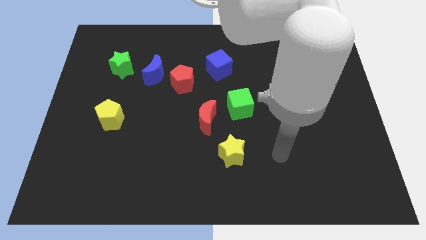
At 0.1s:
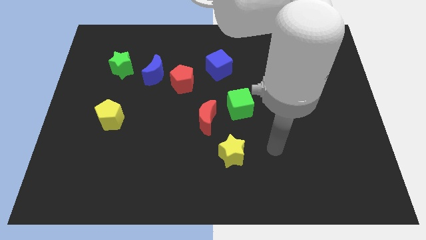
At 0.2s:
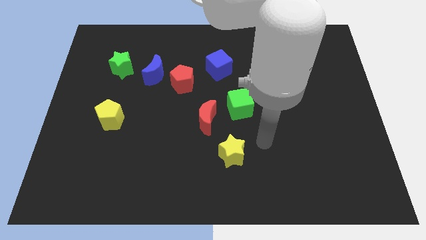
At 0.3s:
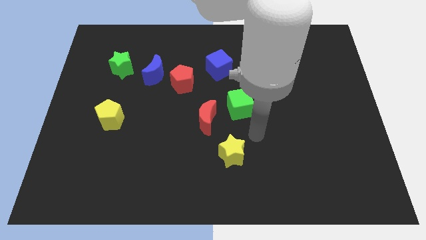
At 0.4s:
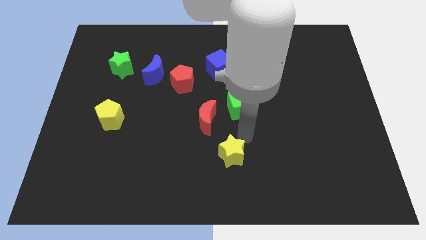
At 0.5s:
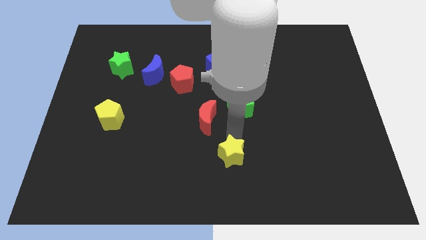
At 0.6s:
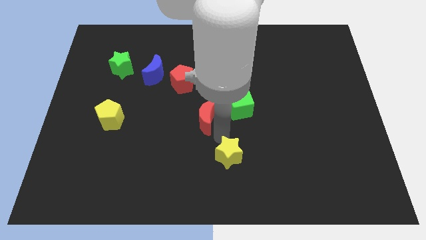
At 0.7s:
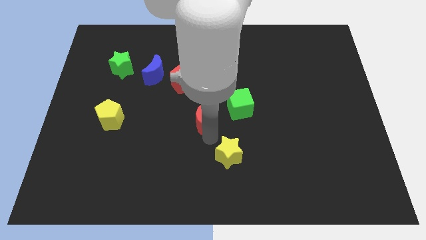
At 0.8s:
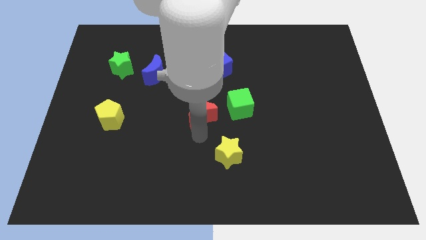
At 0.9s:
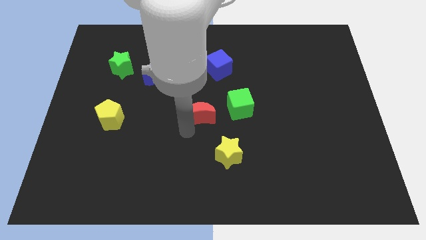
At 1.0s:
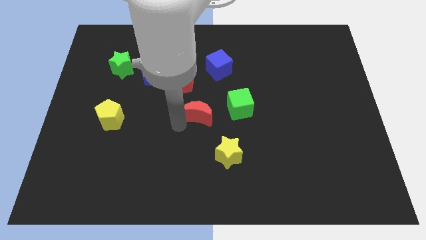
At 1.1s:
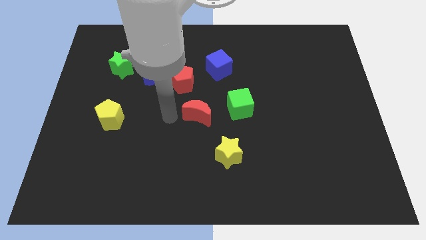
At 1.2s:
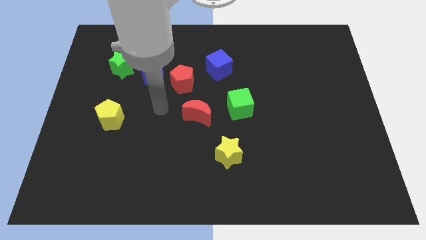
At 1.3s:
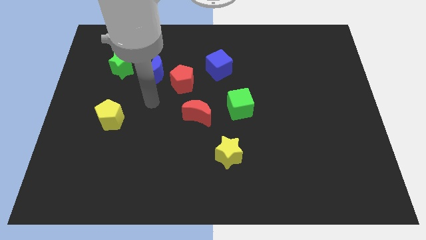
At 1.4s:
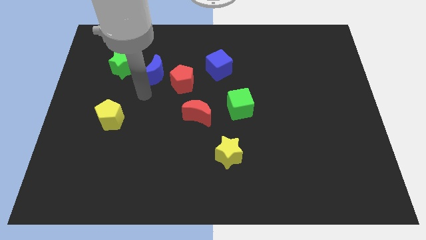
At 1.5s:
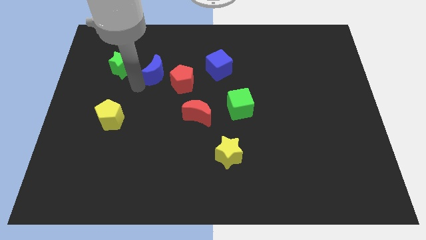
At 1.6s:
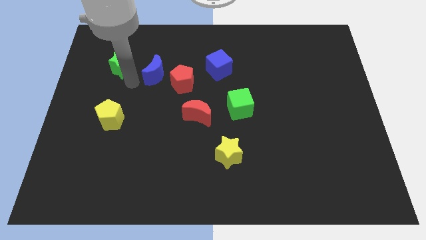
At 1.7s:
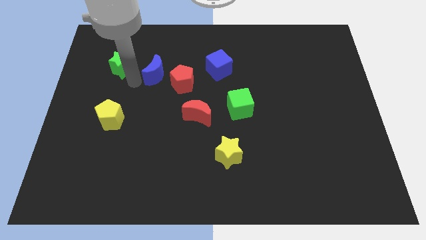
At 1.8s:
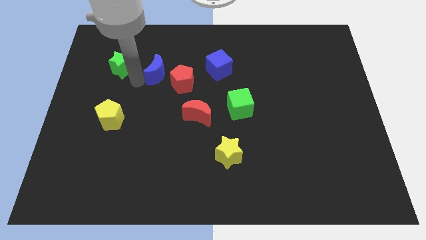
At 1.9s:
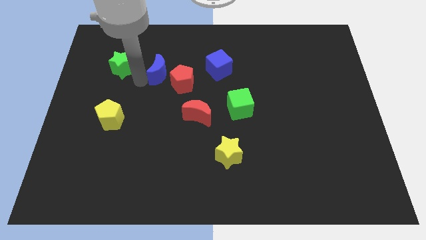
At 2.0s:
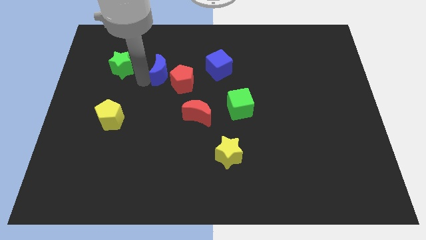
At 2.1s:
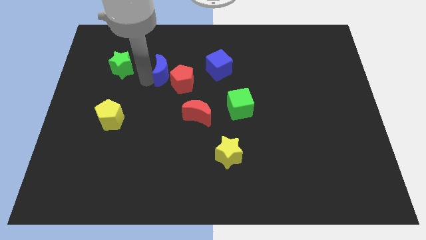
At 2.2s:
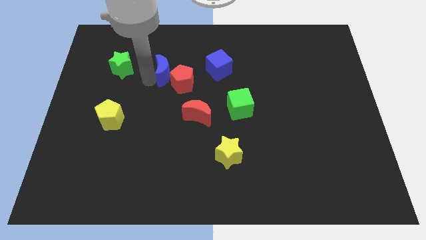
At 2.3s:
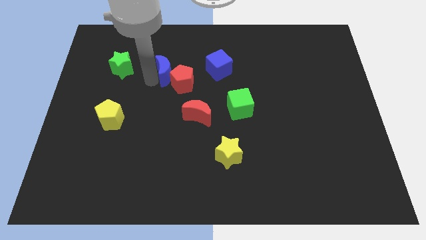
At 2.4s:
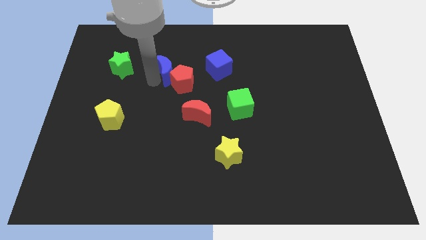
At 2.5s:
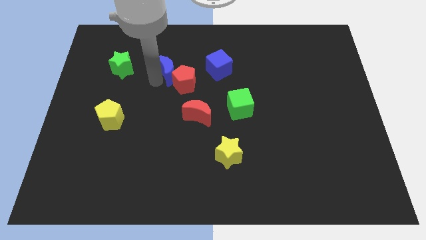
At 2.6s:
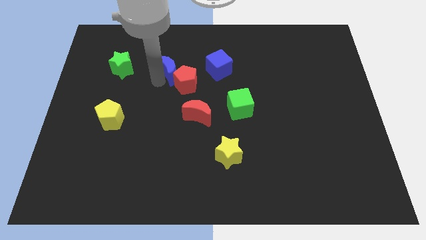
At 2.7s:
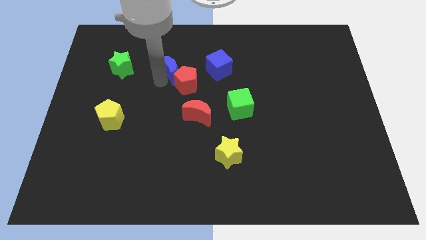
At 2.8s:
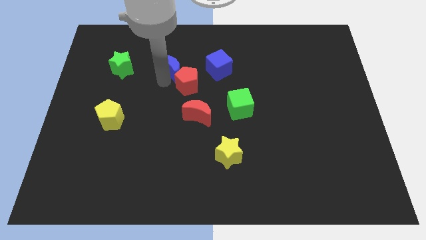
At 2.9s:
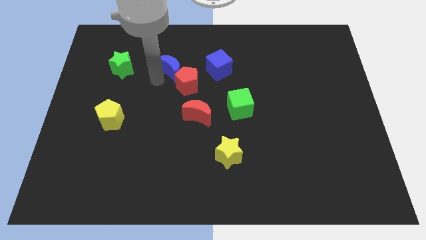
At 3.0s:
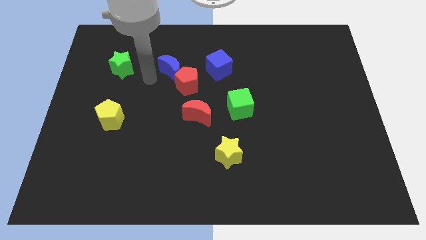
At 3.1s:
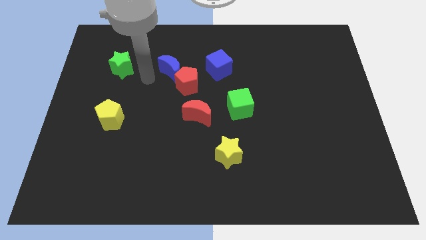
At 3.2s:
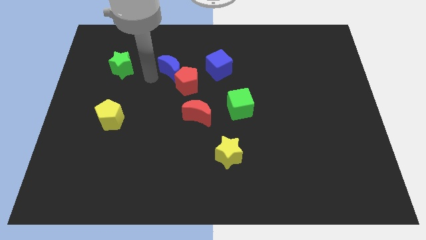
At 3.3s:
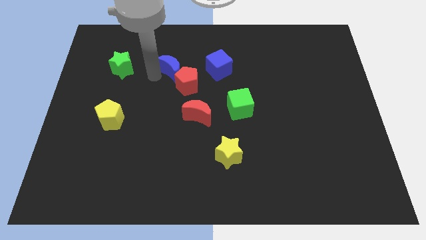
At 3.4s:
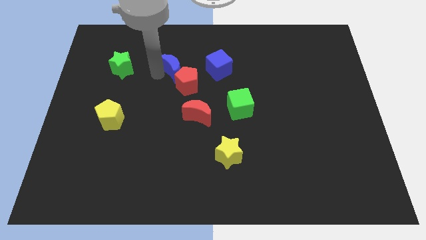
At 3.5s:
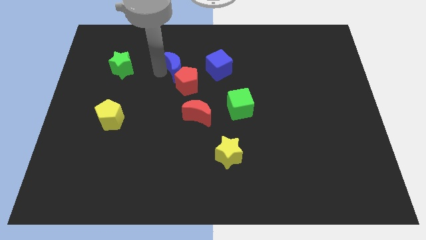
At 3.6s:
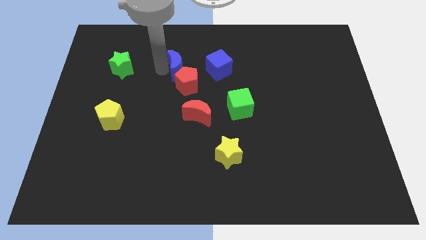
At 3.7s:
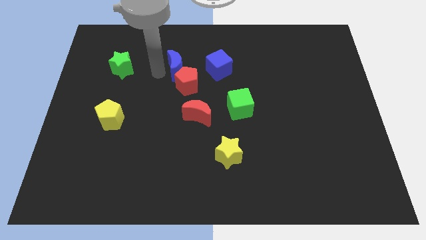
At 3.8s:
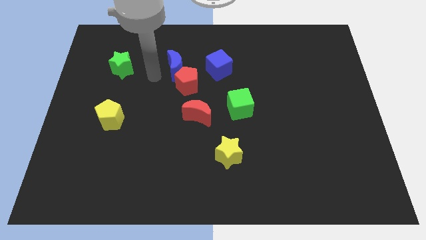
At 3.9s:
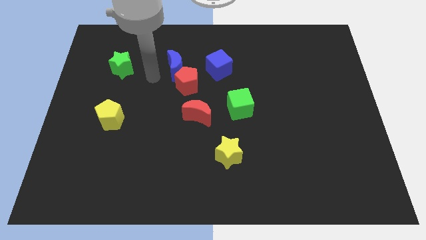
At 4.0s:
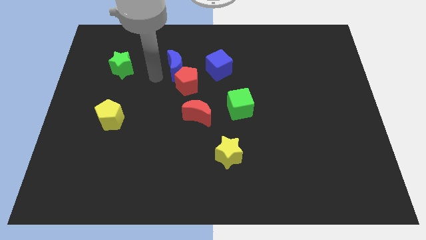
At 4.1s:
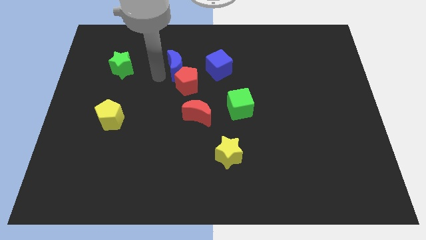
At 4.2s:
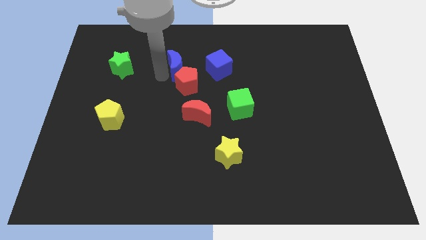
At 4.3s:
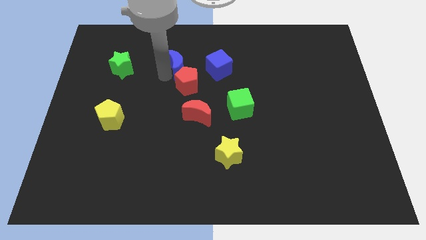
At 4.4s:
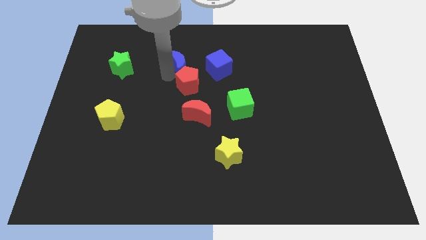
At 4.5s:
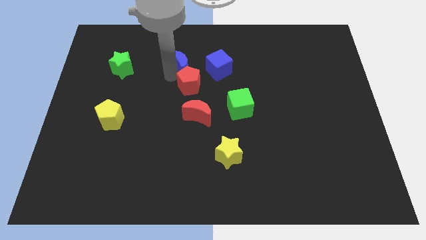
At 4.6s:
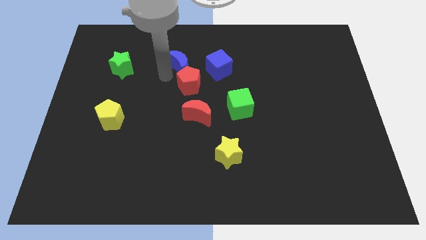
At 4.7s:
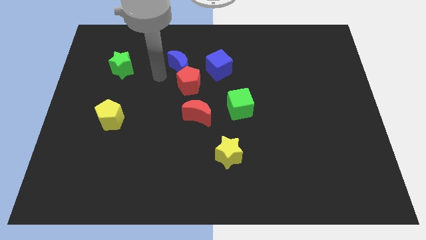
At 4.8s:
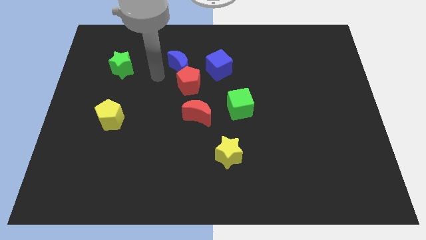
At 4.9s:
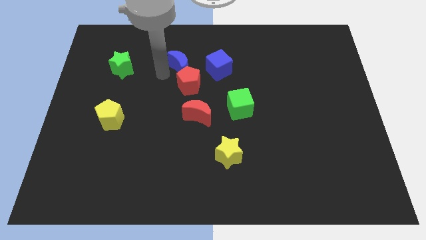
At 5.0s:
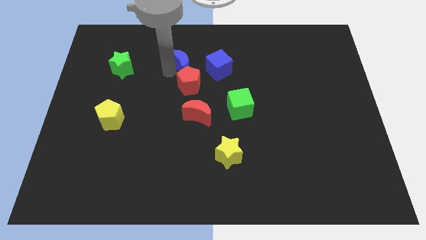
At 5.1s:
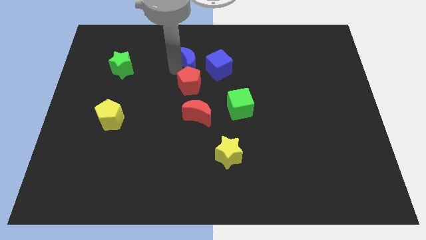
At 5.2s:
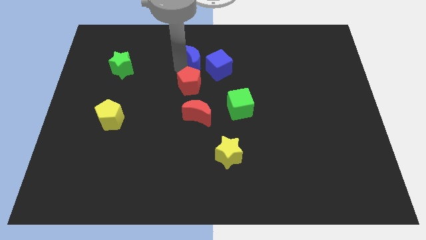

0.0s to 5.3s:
separate the blue moon from the red pentagon and green star

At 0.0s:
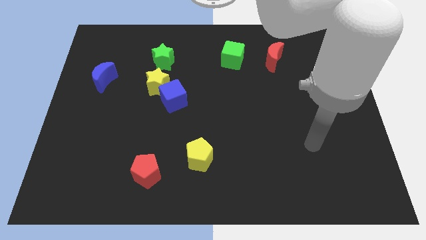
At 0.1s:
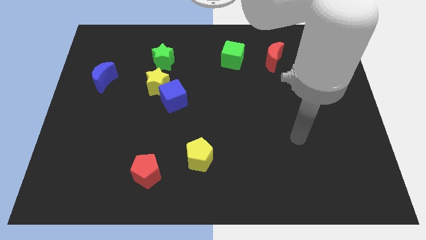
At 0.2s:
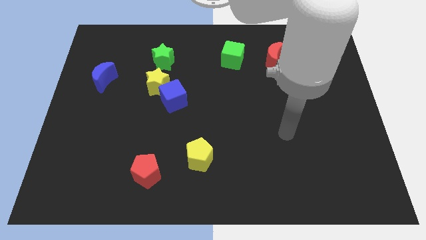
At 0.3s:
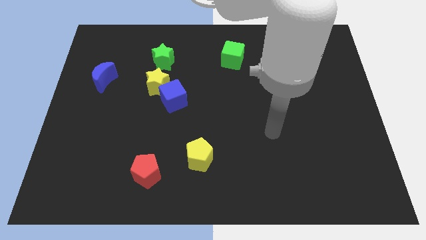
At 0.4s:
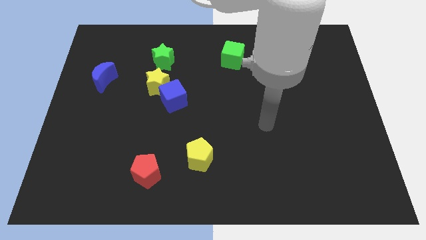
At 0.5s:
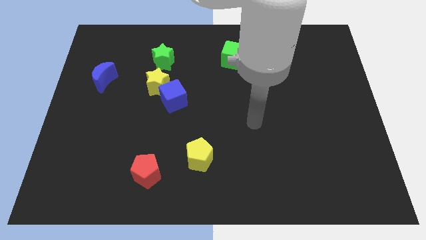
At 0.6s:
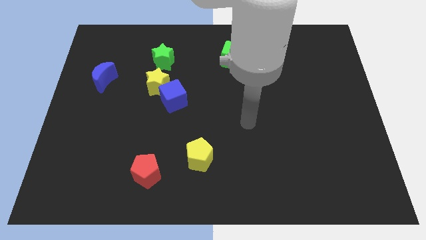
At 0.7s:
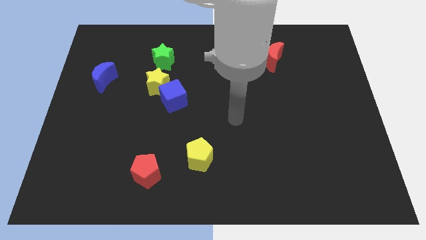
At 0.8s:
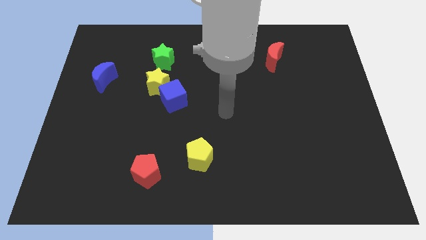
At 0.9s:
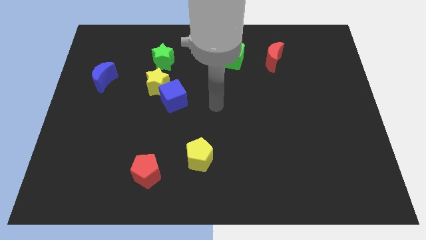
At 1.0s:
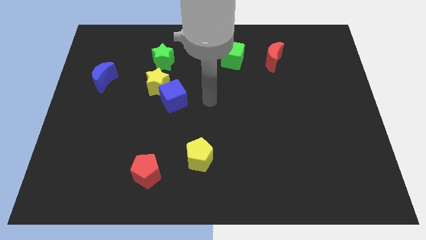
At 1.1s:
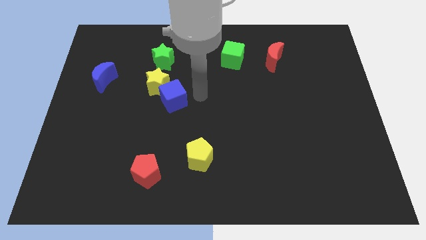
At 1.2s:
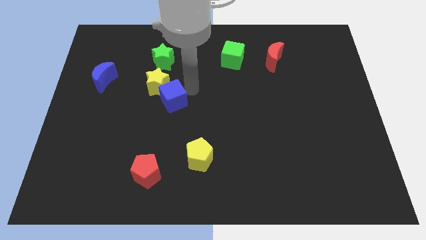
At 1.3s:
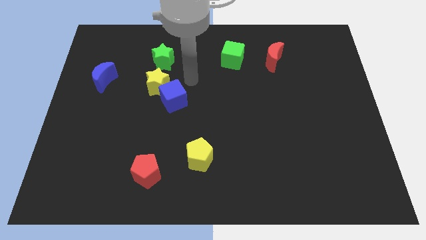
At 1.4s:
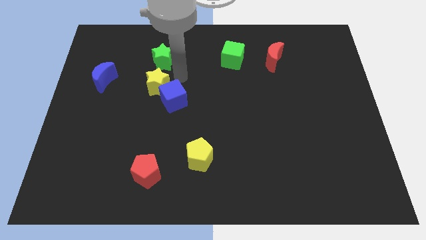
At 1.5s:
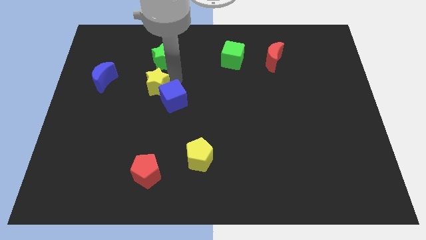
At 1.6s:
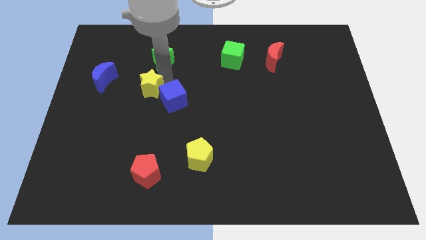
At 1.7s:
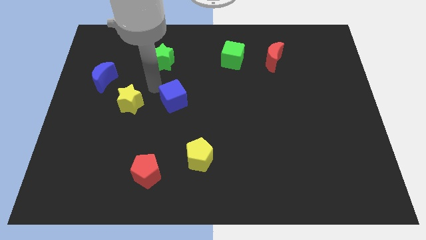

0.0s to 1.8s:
separate the blue cube from the yellow star

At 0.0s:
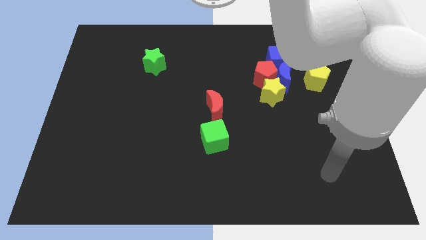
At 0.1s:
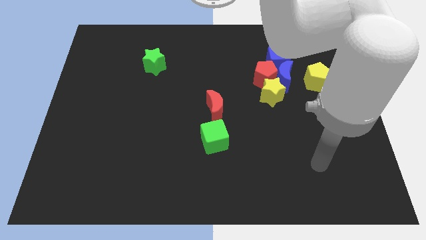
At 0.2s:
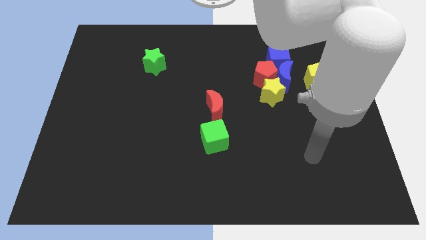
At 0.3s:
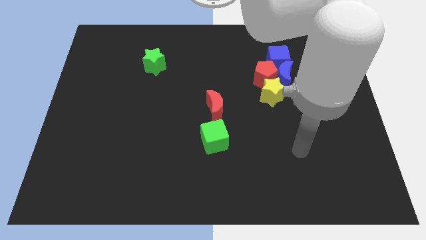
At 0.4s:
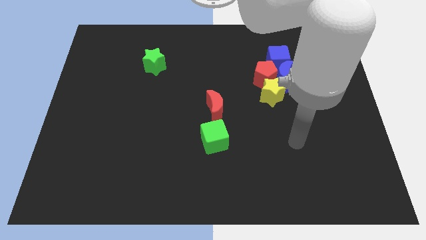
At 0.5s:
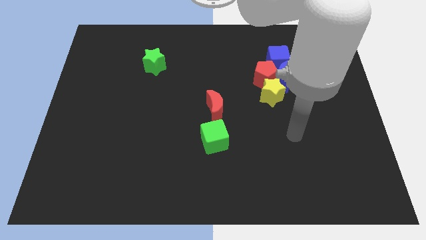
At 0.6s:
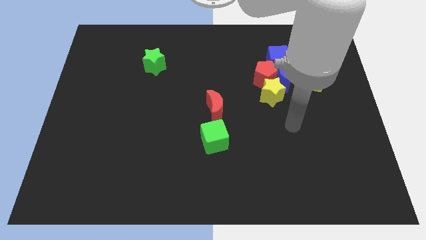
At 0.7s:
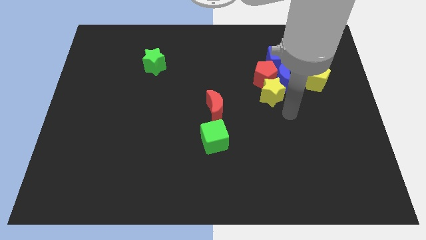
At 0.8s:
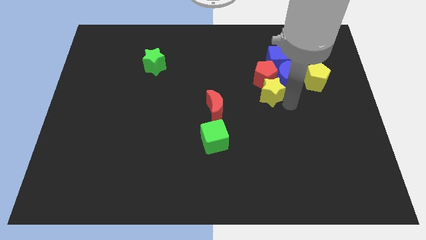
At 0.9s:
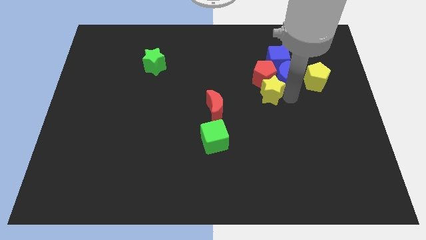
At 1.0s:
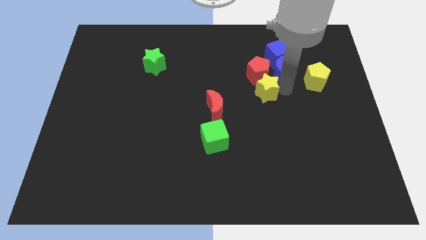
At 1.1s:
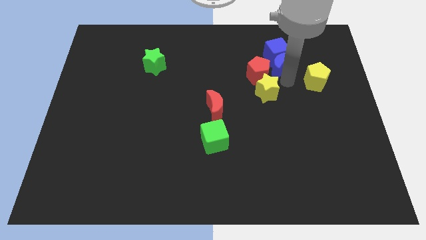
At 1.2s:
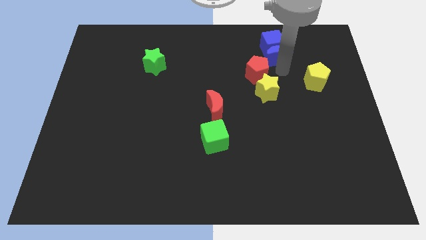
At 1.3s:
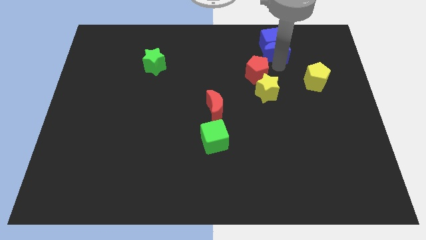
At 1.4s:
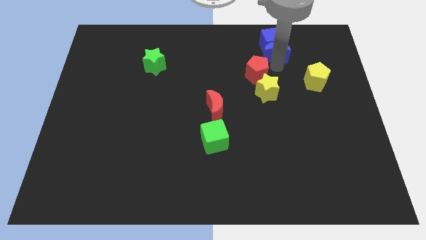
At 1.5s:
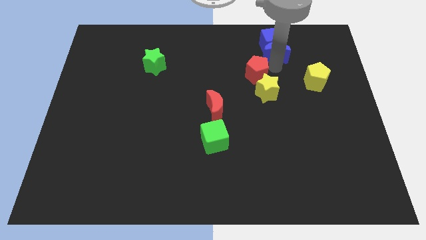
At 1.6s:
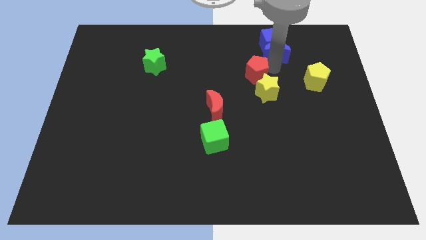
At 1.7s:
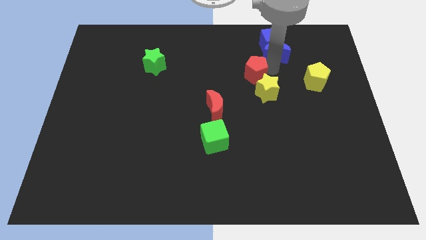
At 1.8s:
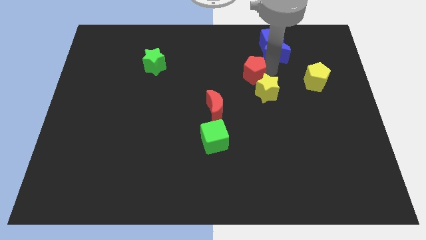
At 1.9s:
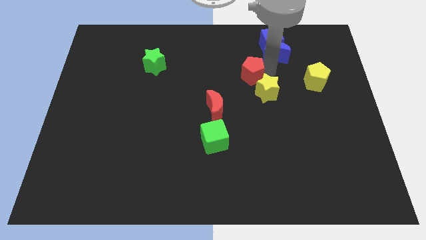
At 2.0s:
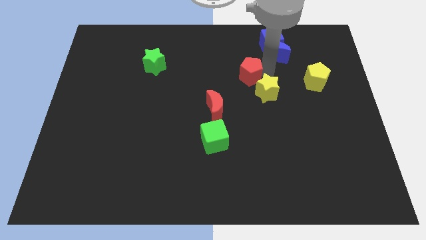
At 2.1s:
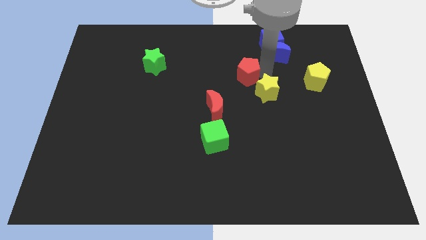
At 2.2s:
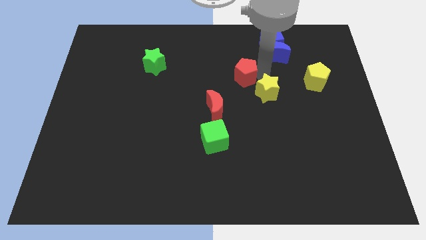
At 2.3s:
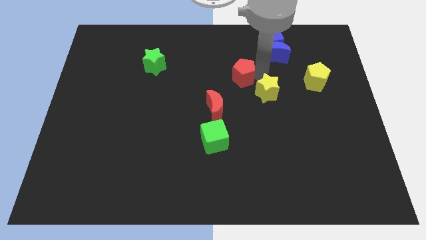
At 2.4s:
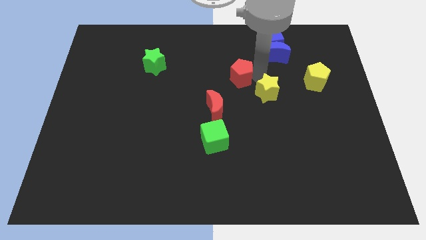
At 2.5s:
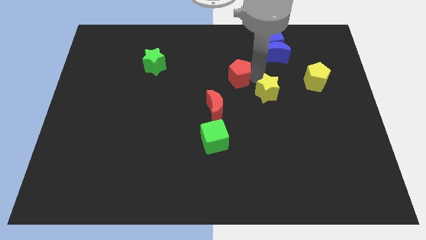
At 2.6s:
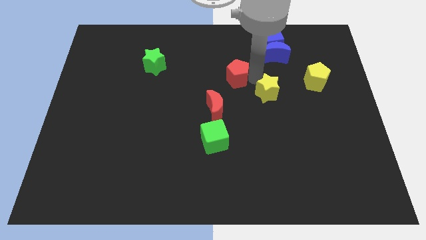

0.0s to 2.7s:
move the red pentagon away from the blue moon, yellow star, and blue cube
